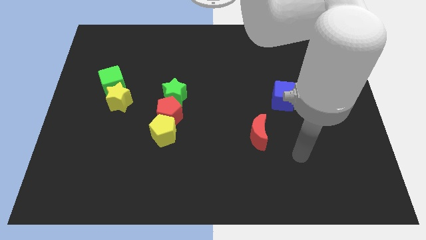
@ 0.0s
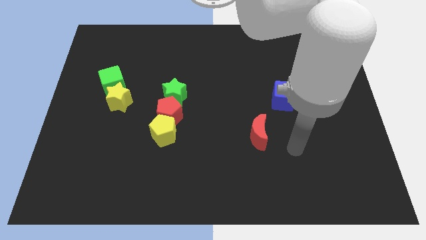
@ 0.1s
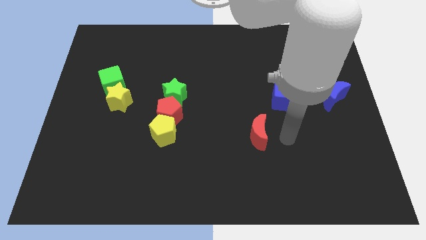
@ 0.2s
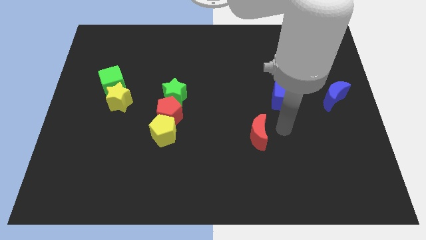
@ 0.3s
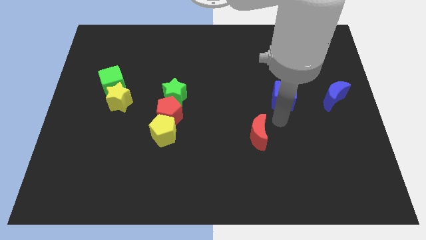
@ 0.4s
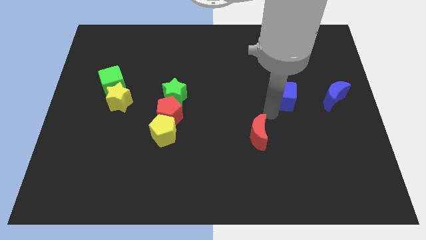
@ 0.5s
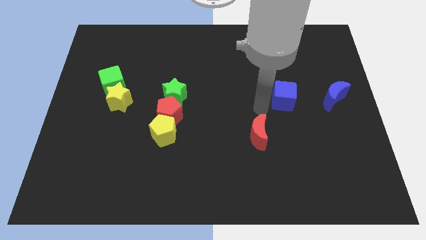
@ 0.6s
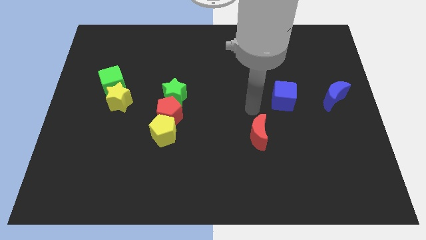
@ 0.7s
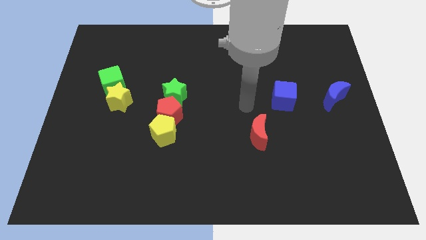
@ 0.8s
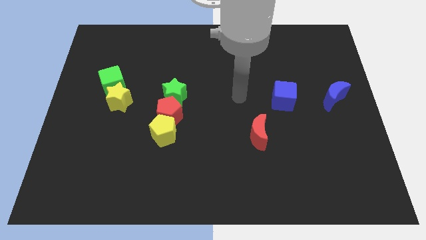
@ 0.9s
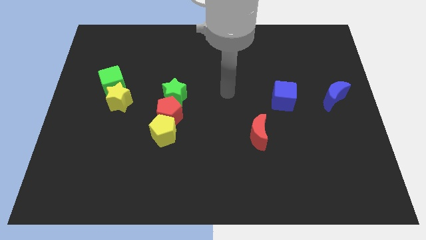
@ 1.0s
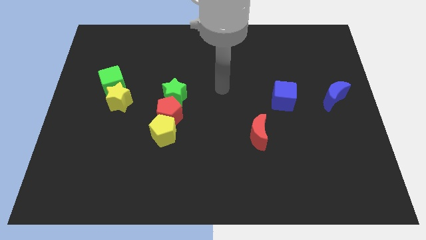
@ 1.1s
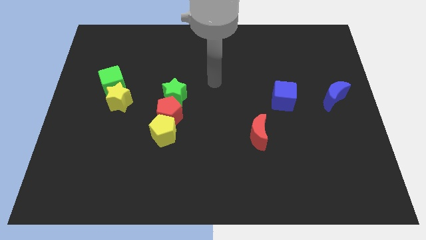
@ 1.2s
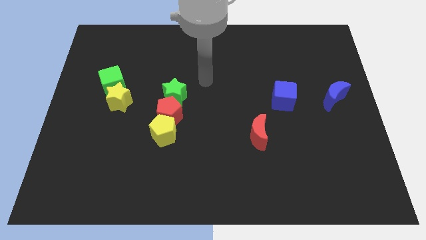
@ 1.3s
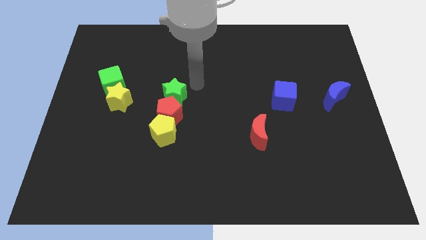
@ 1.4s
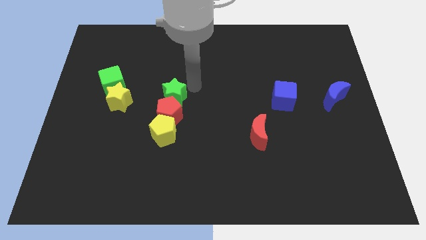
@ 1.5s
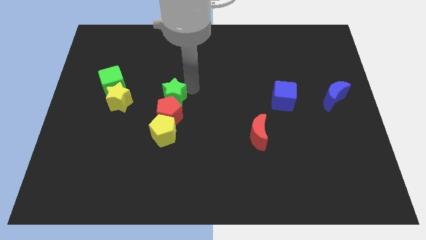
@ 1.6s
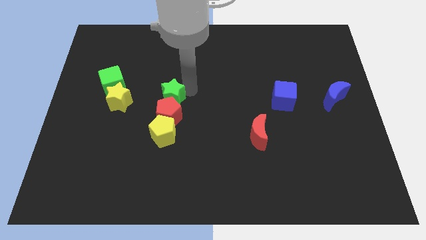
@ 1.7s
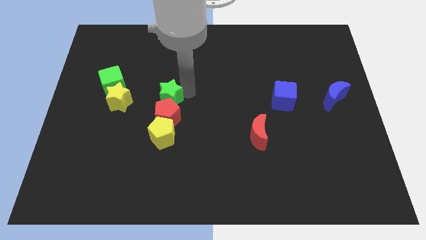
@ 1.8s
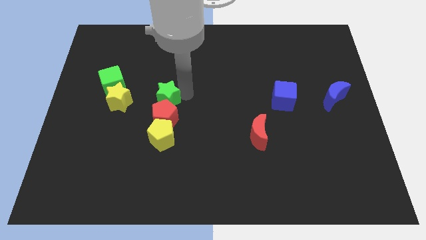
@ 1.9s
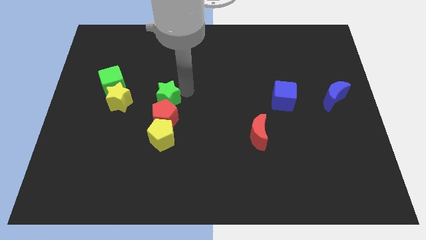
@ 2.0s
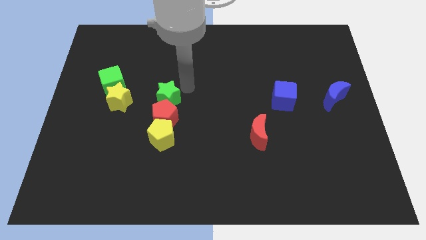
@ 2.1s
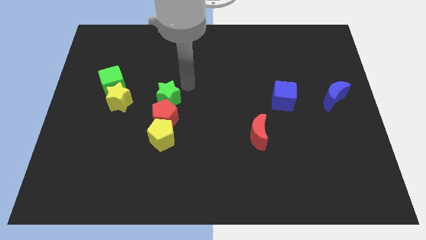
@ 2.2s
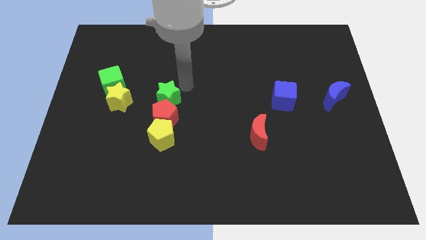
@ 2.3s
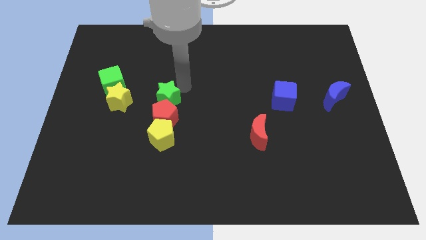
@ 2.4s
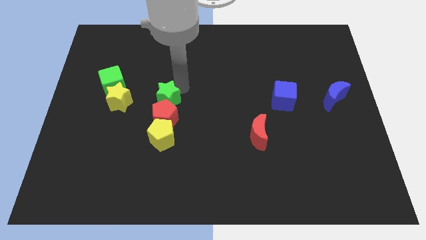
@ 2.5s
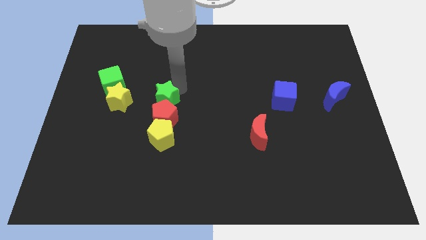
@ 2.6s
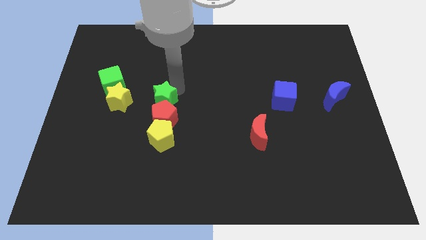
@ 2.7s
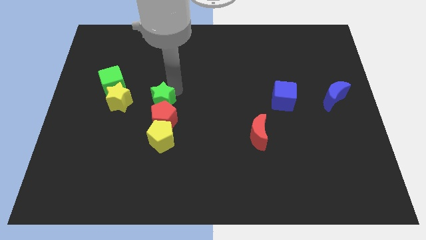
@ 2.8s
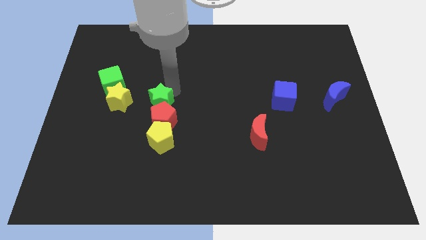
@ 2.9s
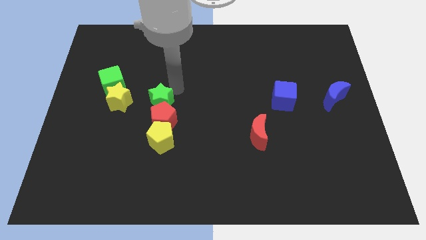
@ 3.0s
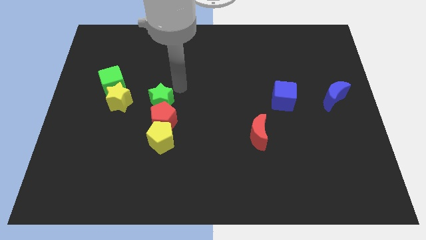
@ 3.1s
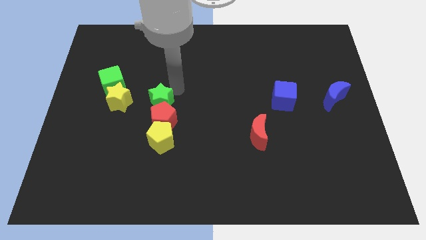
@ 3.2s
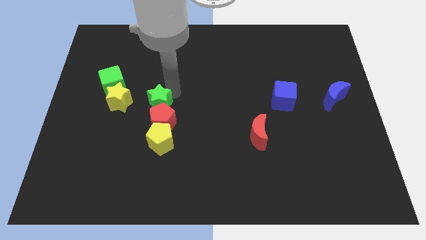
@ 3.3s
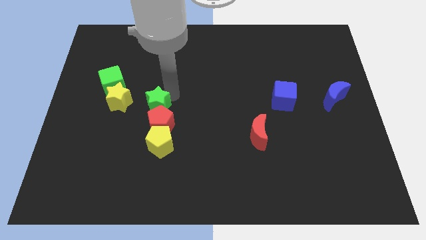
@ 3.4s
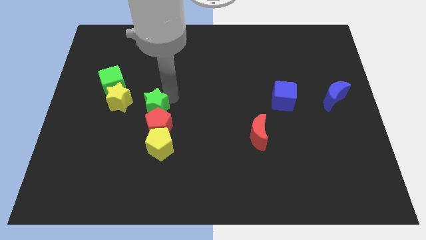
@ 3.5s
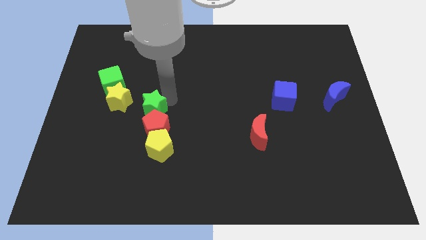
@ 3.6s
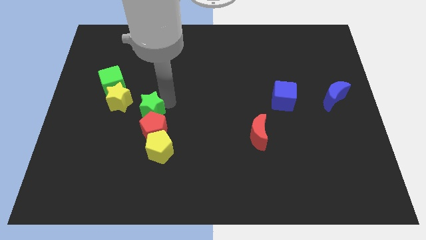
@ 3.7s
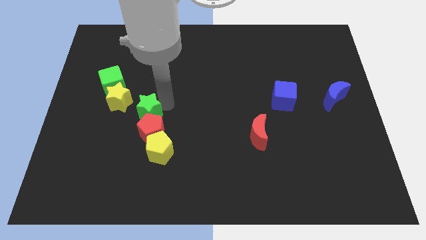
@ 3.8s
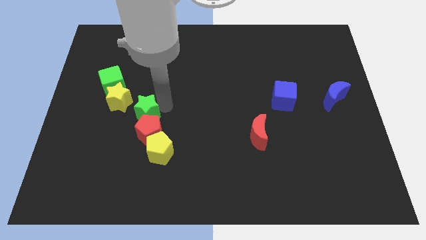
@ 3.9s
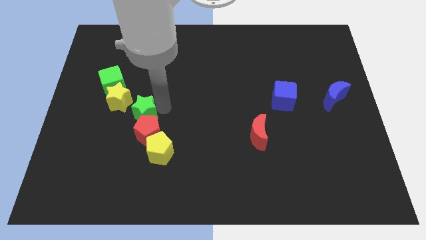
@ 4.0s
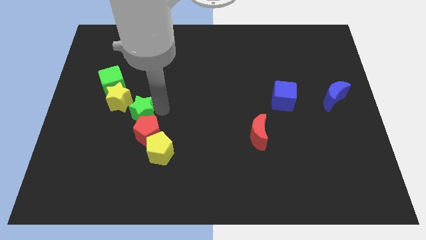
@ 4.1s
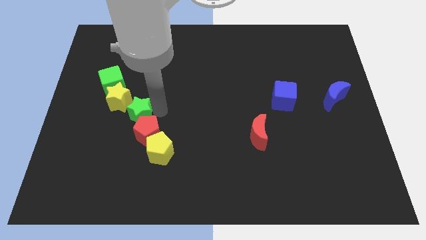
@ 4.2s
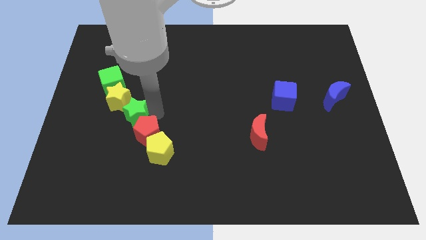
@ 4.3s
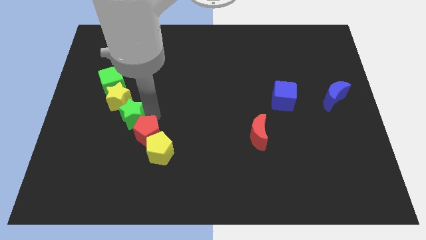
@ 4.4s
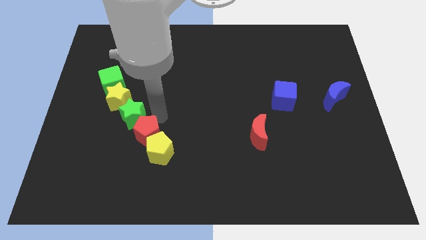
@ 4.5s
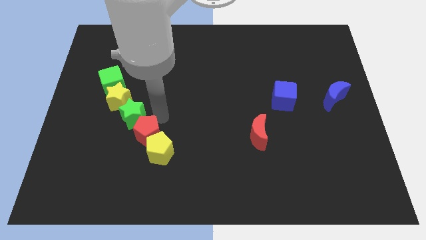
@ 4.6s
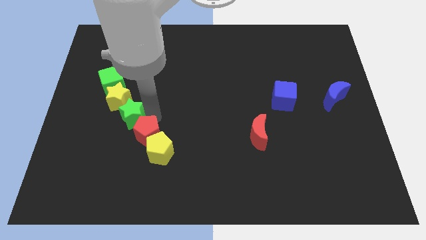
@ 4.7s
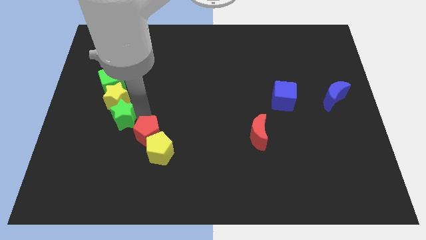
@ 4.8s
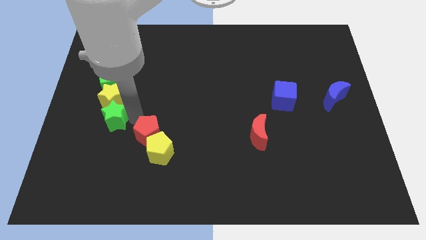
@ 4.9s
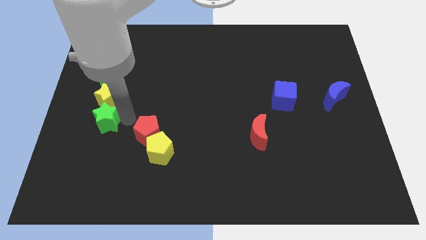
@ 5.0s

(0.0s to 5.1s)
push the green star to the bottom left of the yellow star

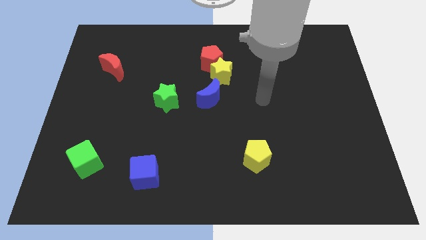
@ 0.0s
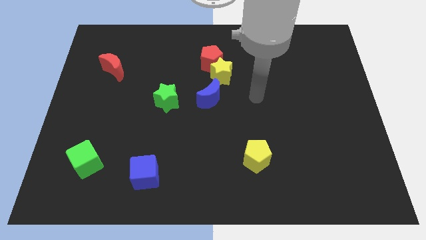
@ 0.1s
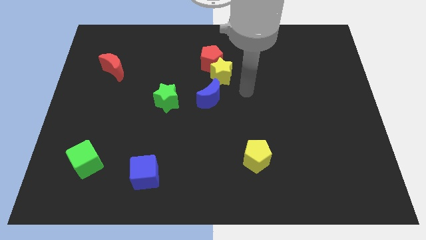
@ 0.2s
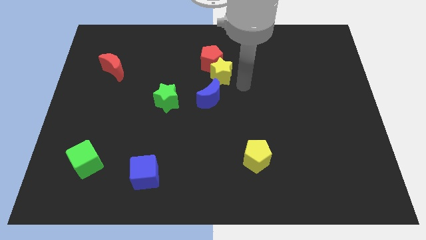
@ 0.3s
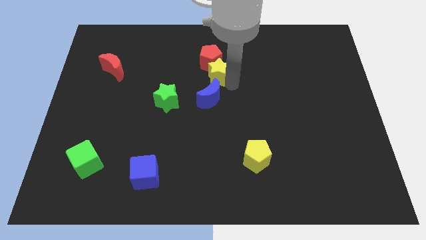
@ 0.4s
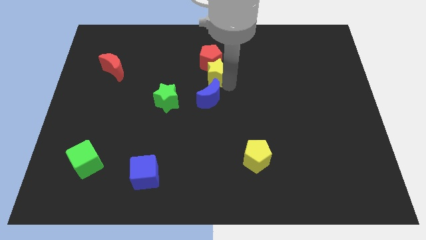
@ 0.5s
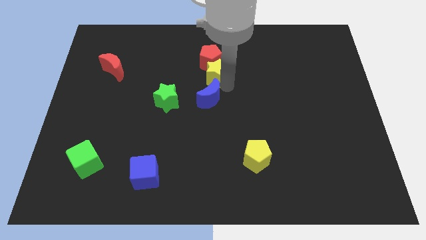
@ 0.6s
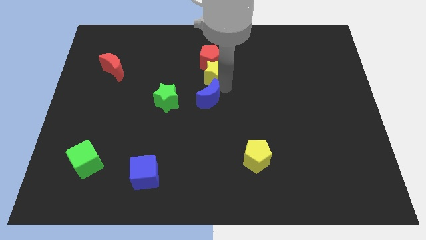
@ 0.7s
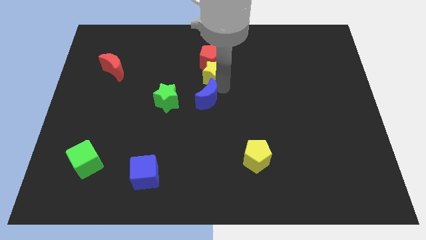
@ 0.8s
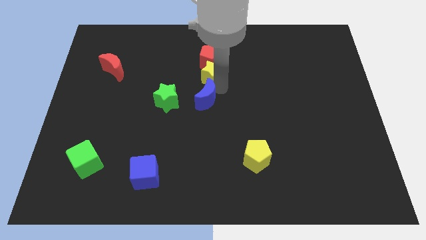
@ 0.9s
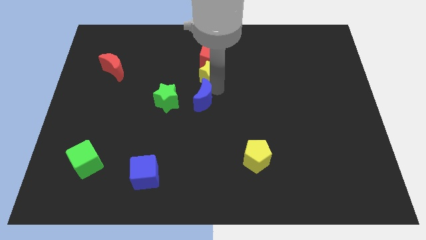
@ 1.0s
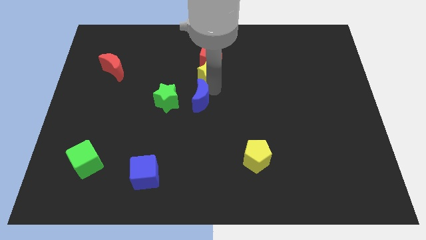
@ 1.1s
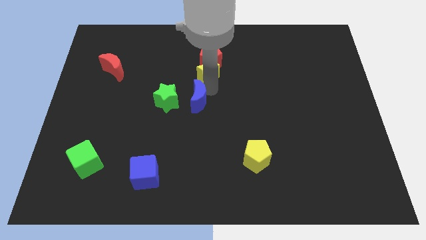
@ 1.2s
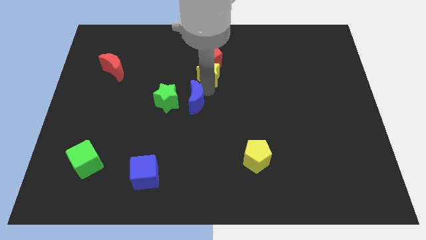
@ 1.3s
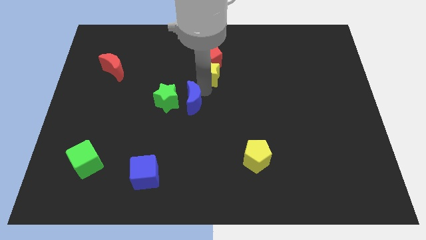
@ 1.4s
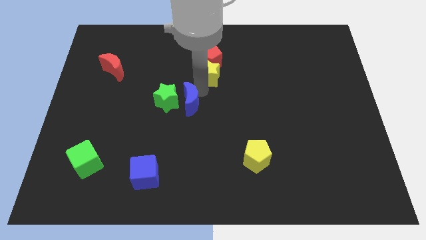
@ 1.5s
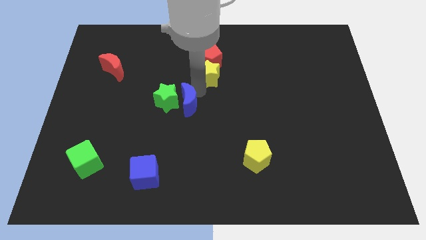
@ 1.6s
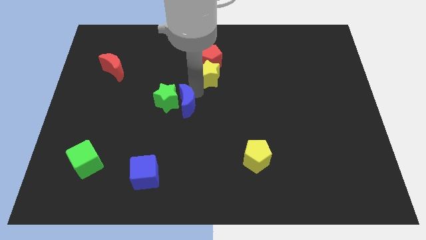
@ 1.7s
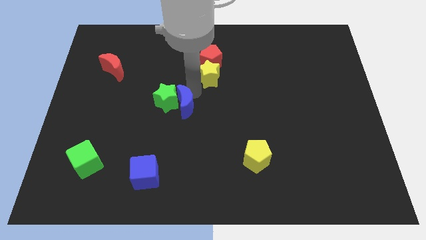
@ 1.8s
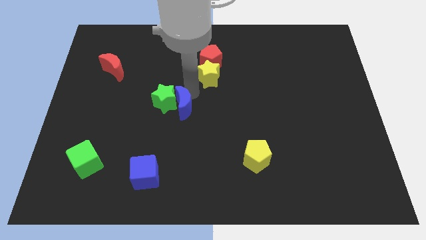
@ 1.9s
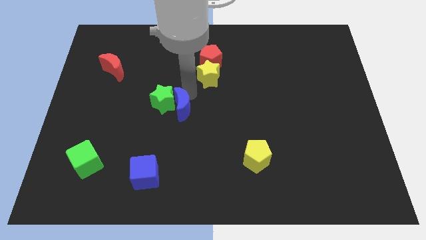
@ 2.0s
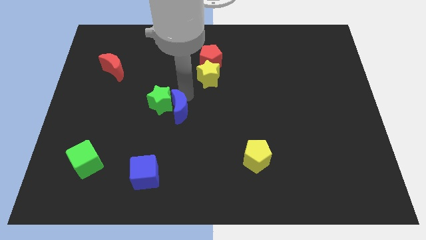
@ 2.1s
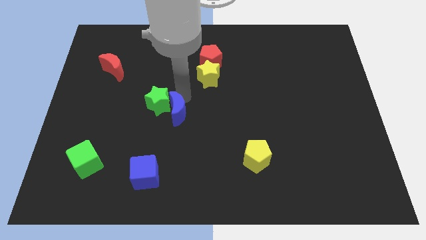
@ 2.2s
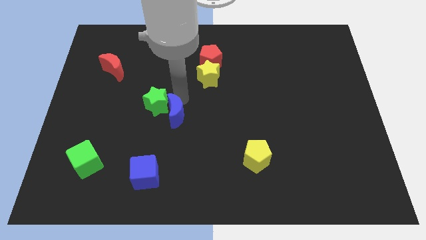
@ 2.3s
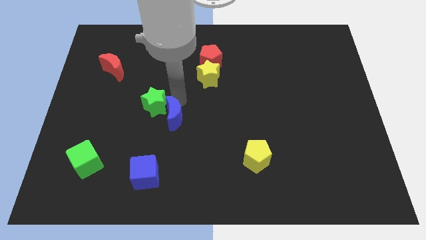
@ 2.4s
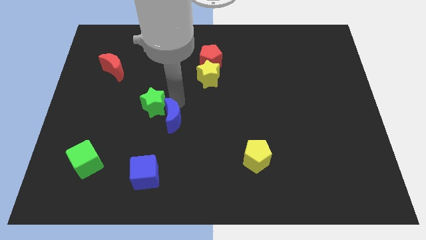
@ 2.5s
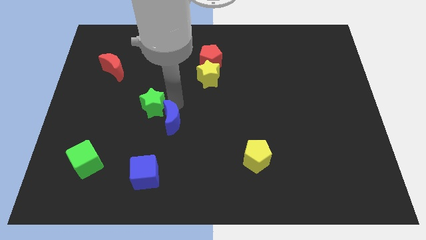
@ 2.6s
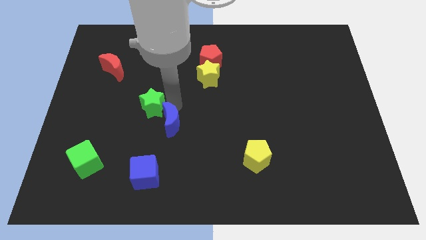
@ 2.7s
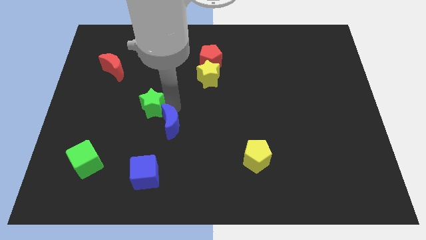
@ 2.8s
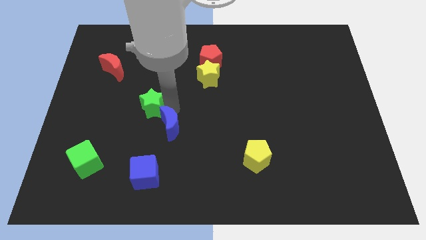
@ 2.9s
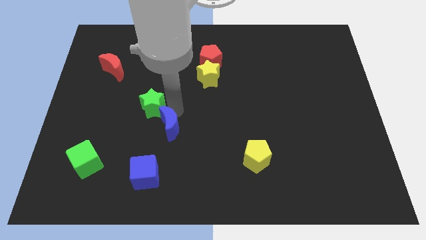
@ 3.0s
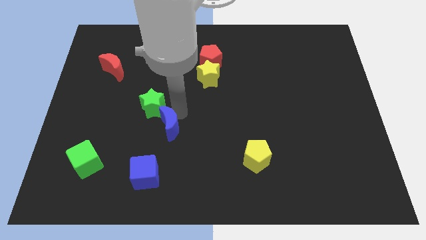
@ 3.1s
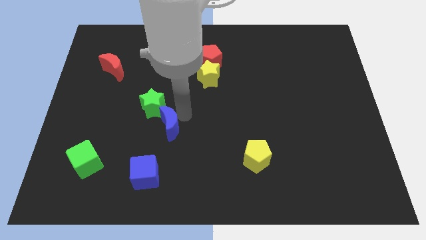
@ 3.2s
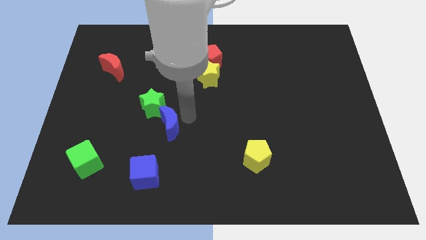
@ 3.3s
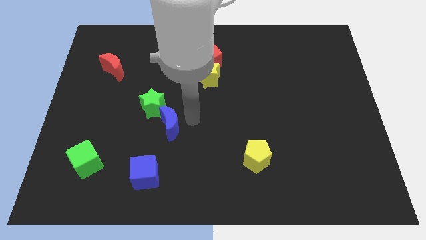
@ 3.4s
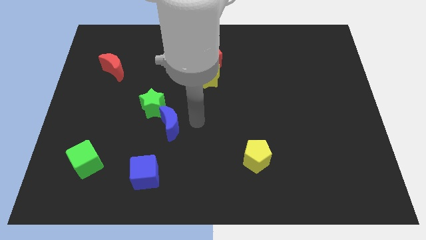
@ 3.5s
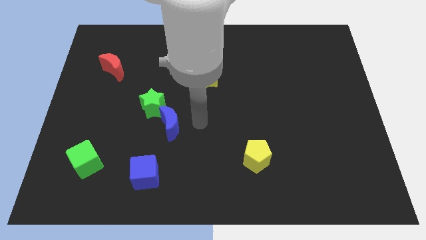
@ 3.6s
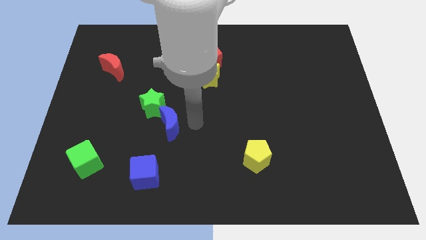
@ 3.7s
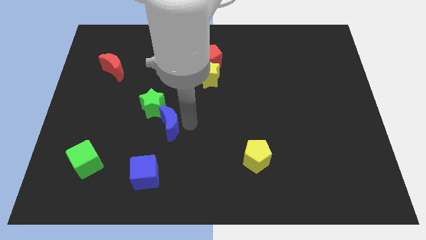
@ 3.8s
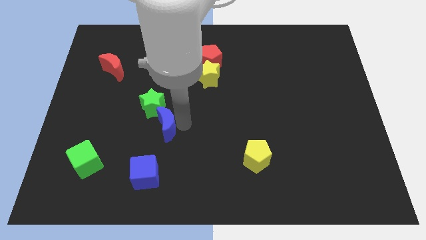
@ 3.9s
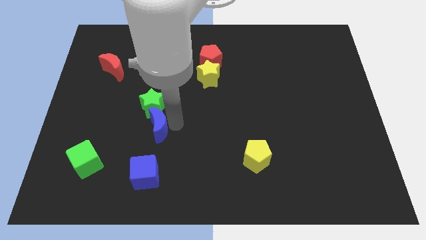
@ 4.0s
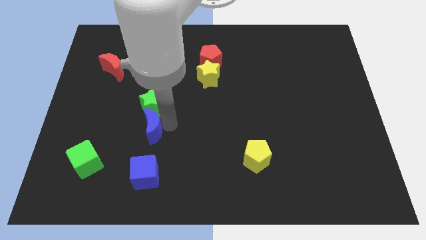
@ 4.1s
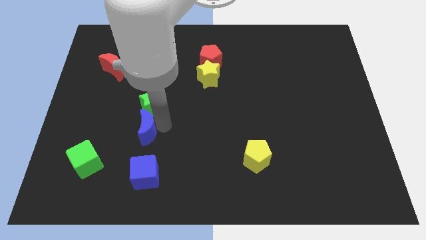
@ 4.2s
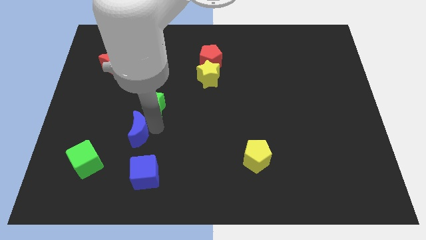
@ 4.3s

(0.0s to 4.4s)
move the blue moon diagonally up and to the right of the green cube
